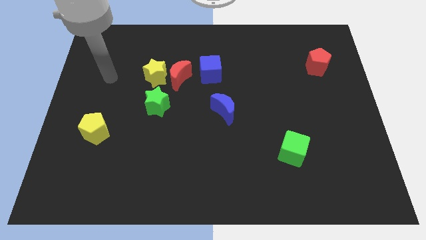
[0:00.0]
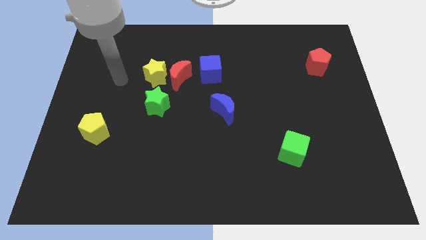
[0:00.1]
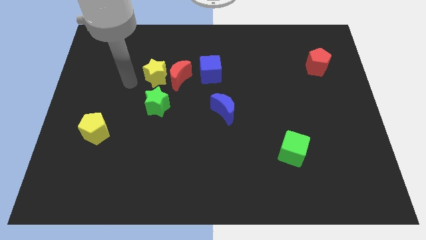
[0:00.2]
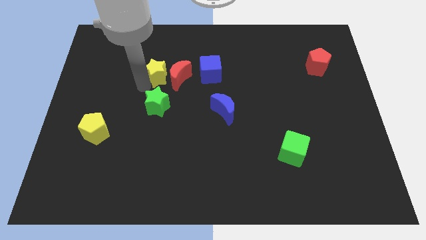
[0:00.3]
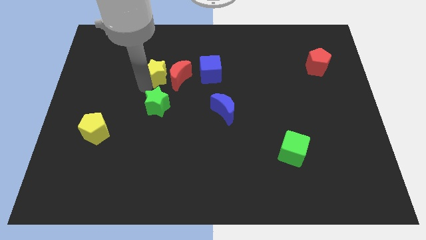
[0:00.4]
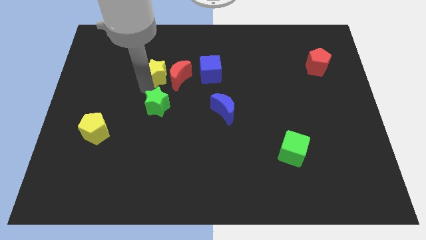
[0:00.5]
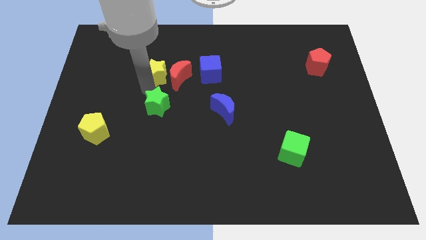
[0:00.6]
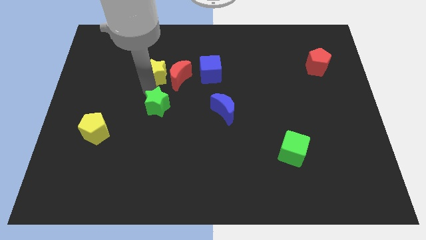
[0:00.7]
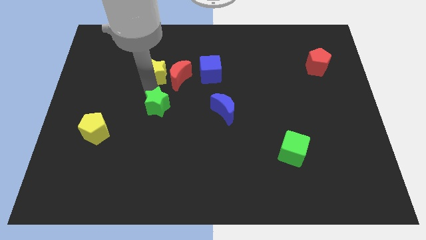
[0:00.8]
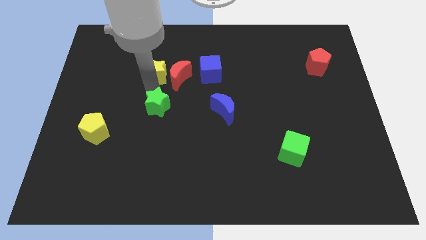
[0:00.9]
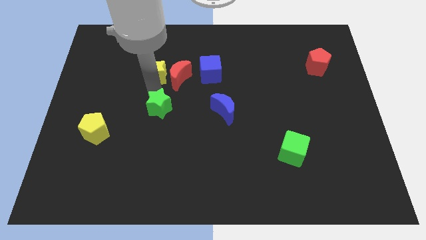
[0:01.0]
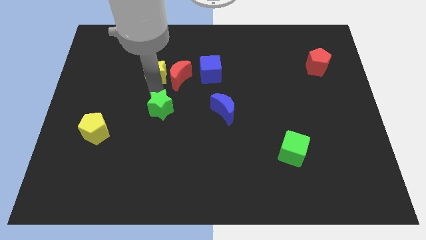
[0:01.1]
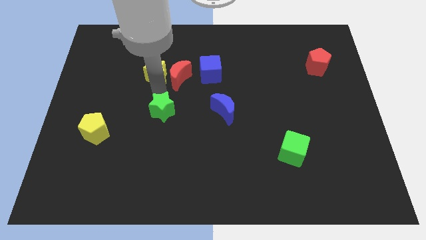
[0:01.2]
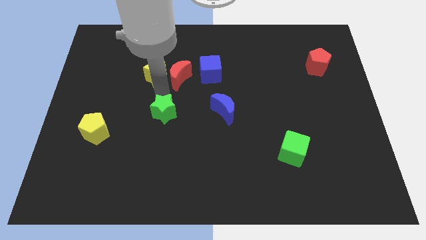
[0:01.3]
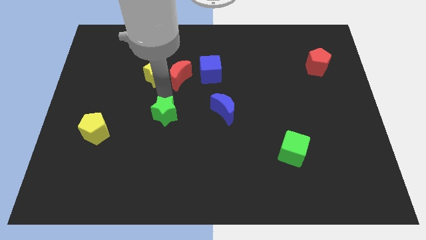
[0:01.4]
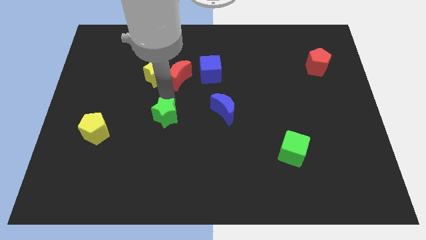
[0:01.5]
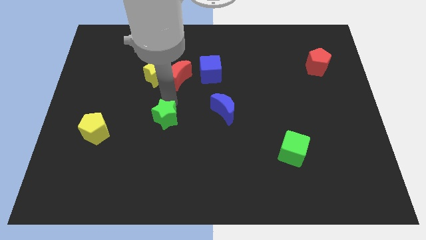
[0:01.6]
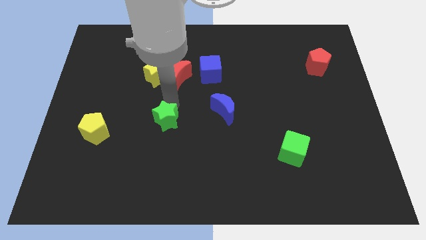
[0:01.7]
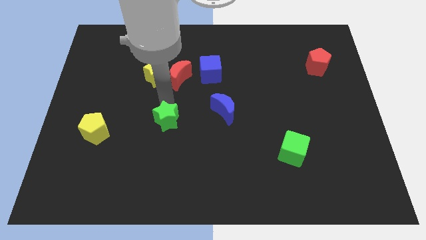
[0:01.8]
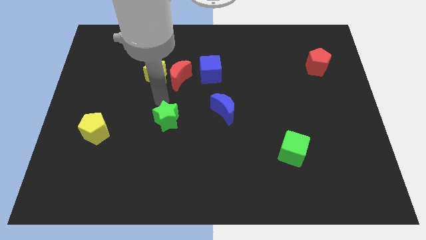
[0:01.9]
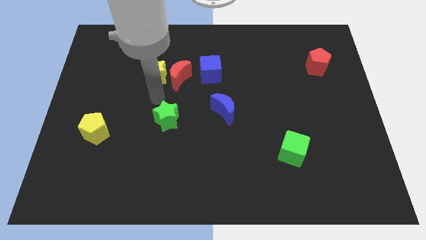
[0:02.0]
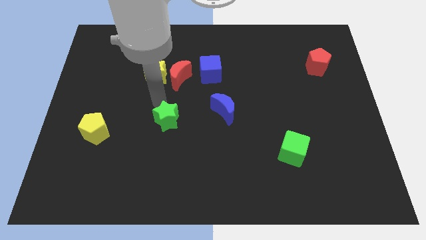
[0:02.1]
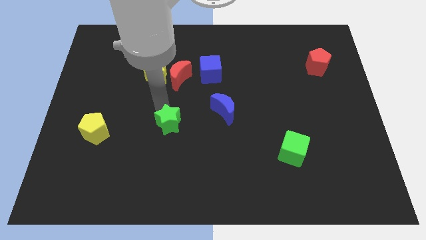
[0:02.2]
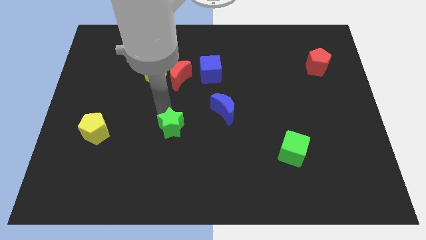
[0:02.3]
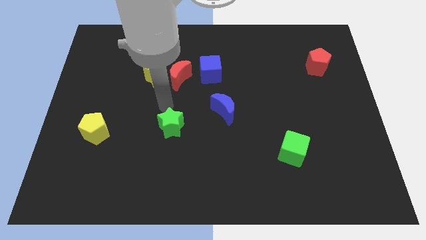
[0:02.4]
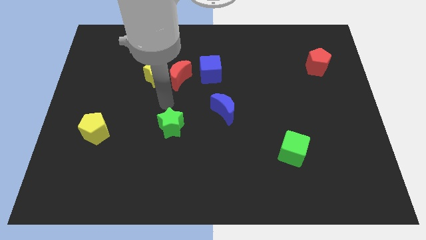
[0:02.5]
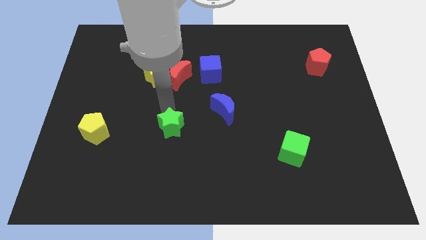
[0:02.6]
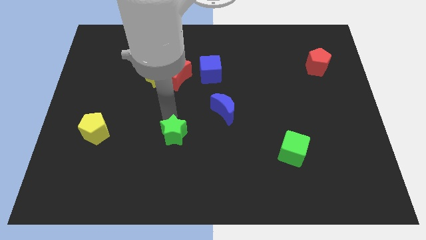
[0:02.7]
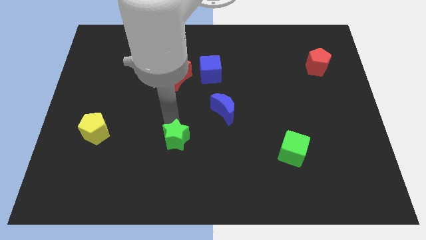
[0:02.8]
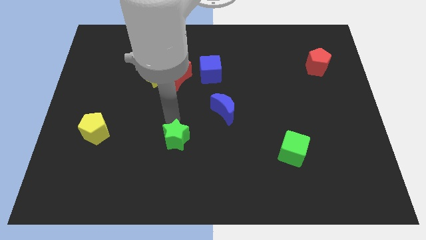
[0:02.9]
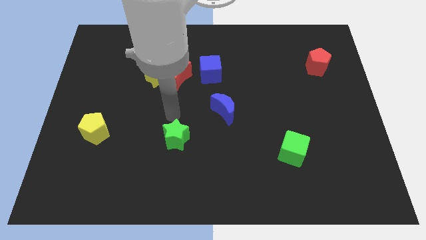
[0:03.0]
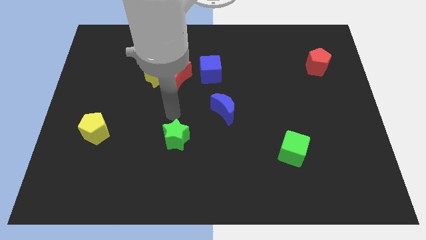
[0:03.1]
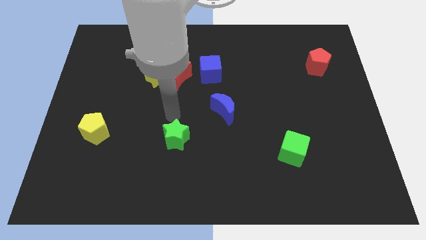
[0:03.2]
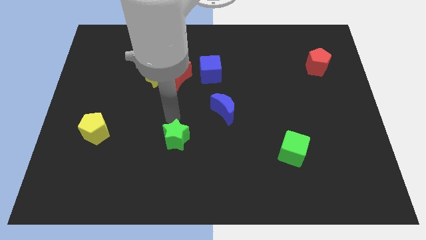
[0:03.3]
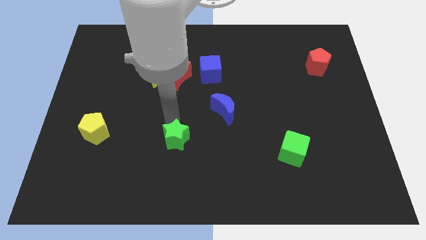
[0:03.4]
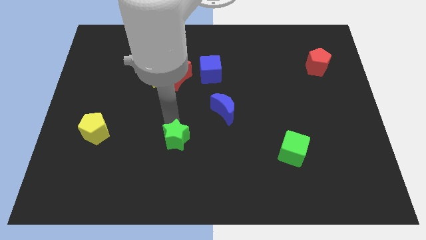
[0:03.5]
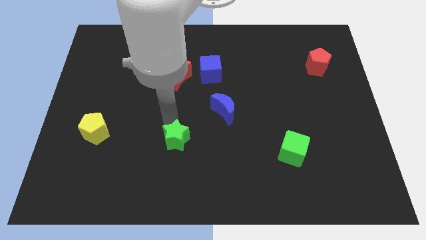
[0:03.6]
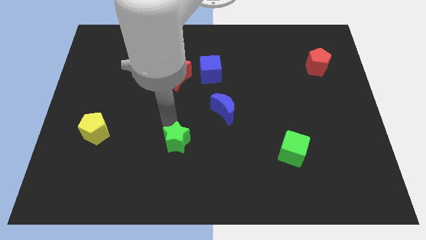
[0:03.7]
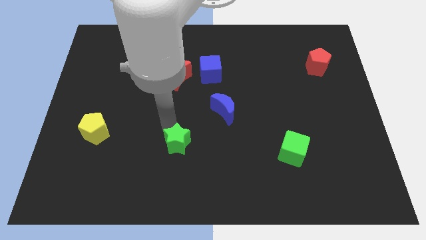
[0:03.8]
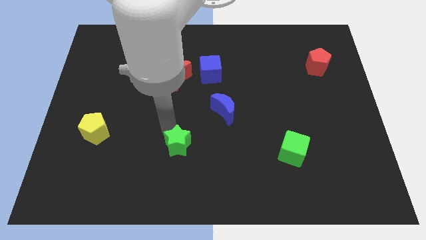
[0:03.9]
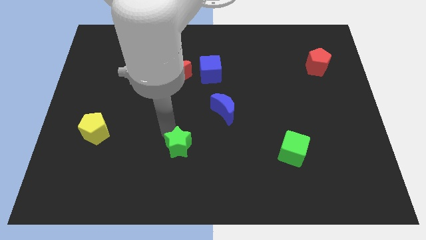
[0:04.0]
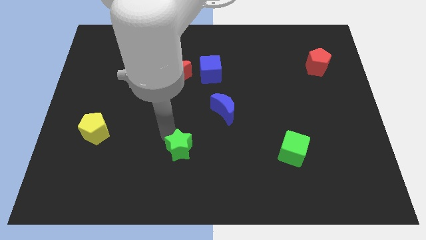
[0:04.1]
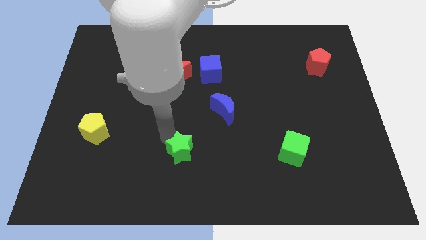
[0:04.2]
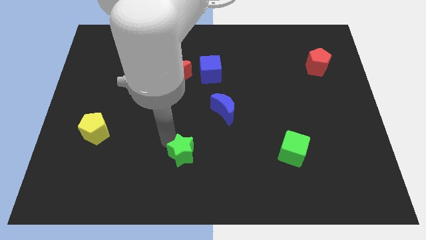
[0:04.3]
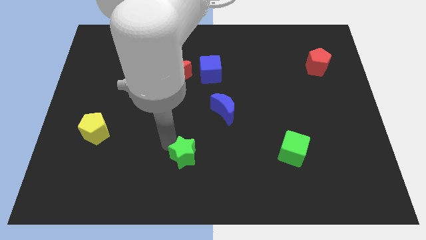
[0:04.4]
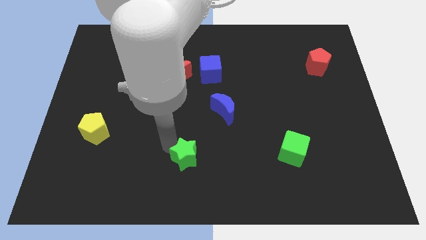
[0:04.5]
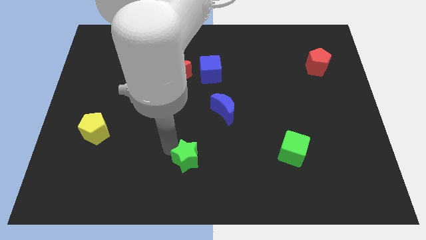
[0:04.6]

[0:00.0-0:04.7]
slide the green star to the bottom

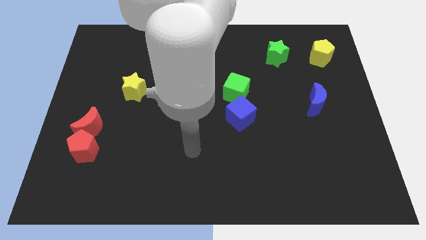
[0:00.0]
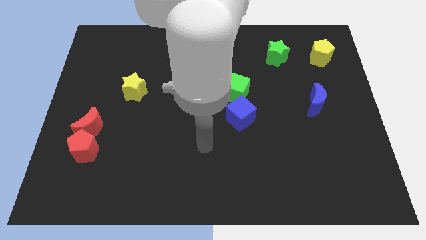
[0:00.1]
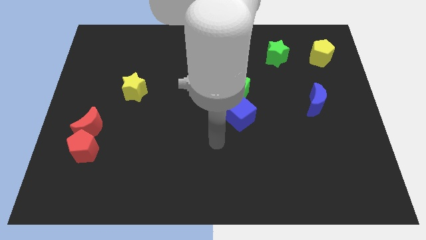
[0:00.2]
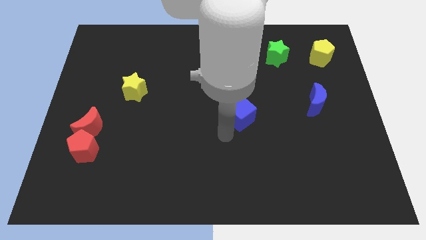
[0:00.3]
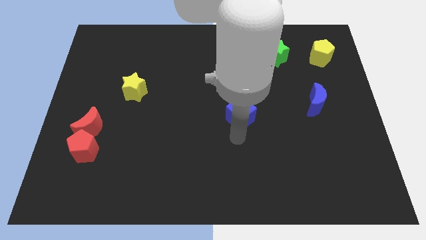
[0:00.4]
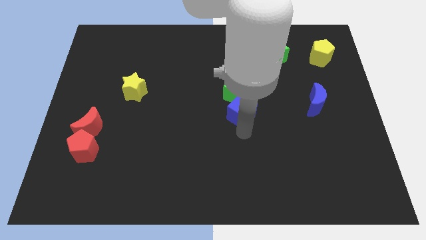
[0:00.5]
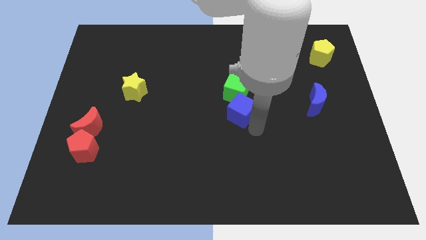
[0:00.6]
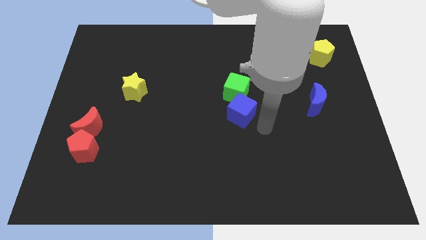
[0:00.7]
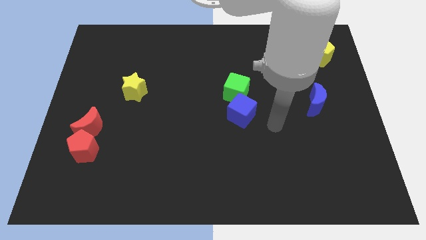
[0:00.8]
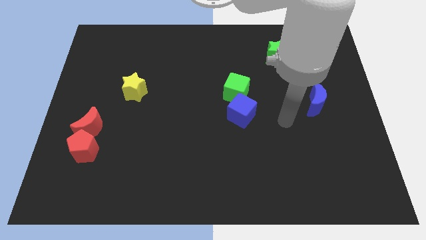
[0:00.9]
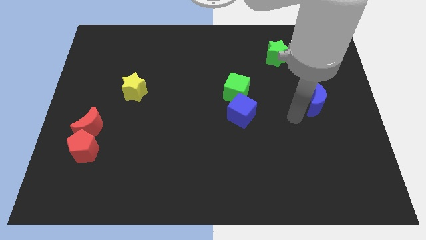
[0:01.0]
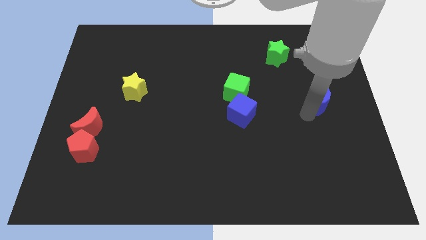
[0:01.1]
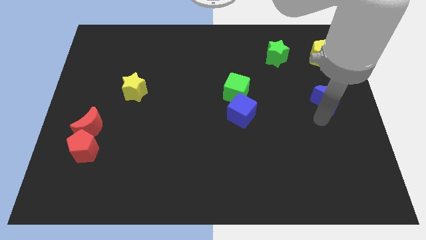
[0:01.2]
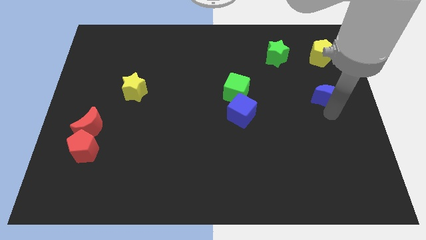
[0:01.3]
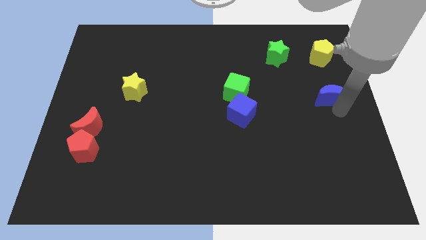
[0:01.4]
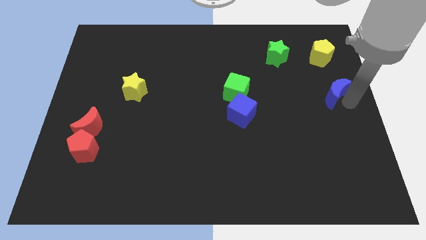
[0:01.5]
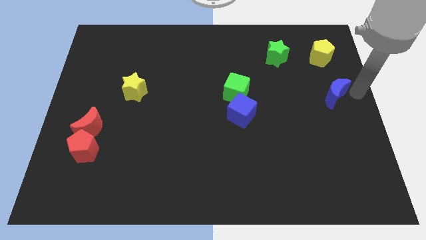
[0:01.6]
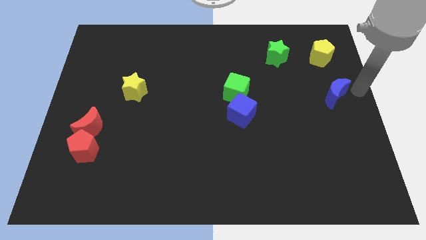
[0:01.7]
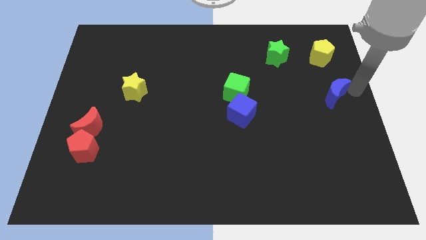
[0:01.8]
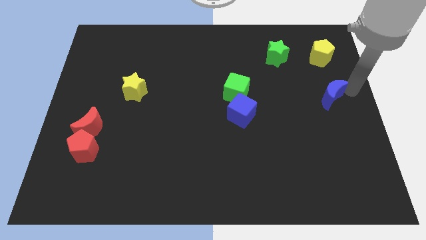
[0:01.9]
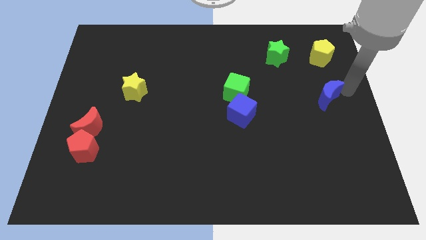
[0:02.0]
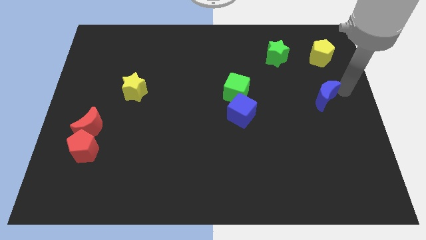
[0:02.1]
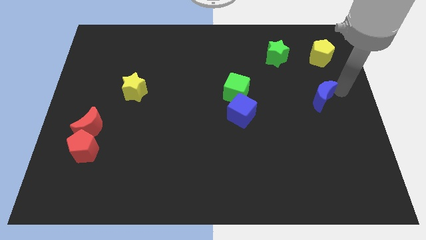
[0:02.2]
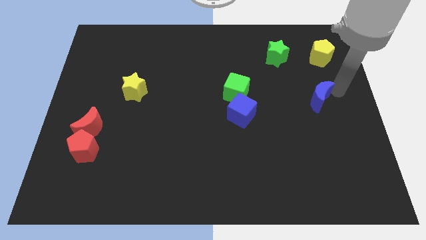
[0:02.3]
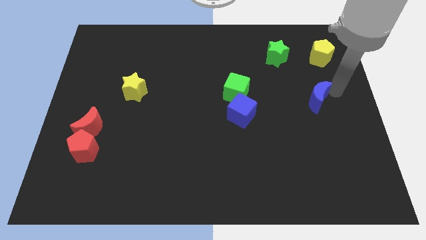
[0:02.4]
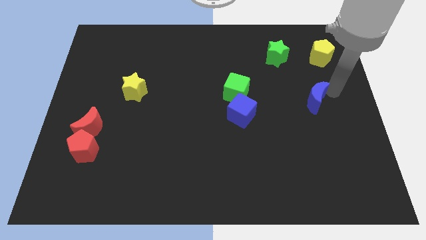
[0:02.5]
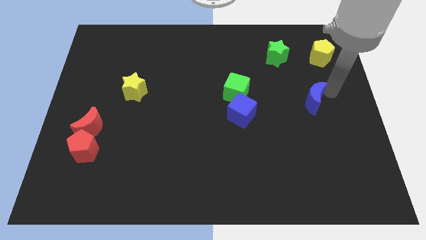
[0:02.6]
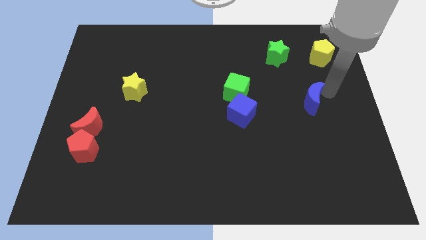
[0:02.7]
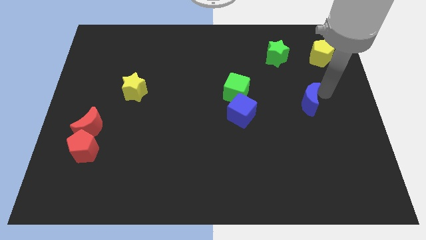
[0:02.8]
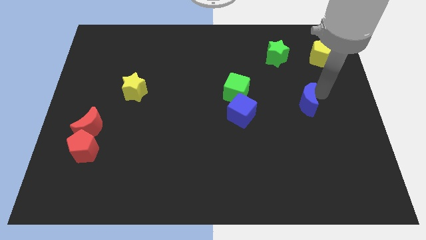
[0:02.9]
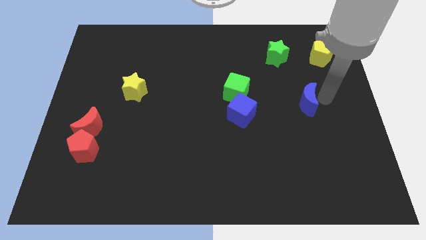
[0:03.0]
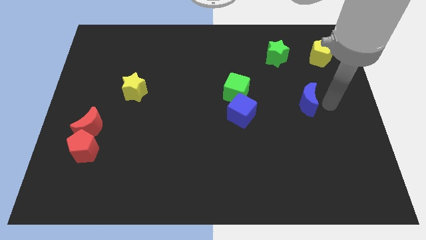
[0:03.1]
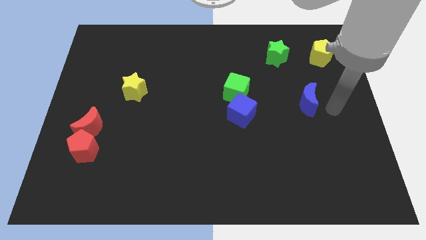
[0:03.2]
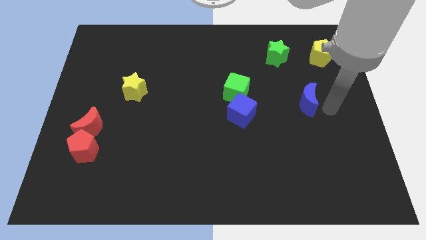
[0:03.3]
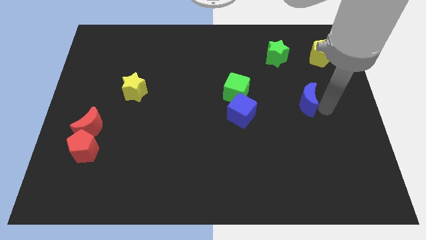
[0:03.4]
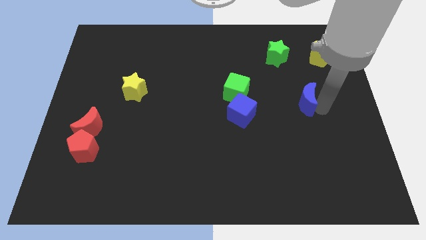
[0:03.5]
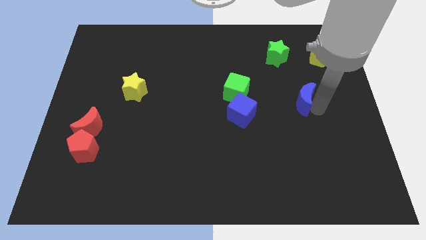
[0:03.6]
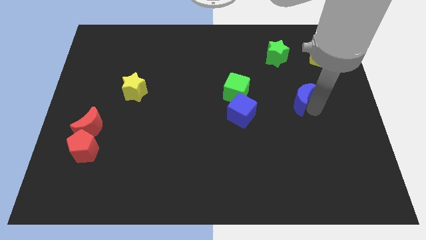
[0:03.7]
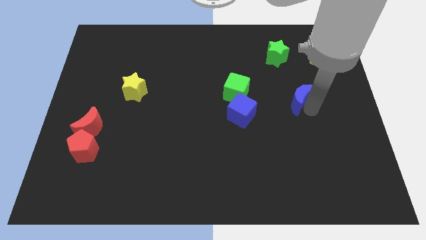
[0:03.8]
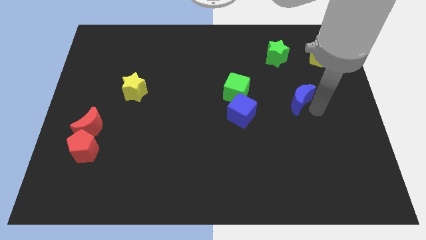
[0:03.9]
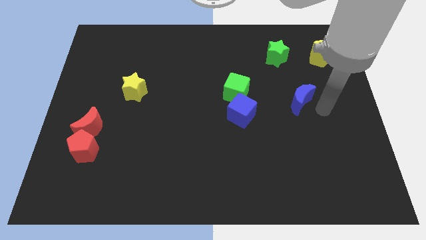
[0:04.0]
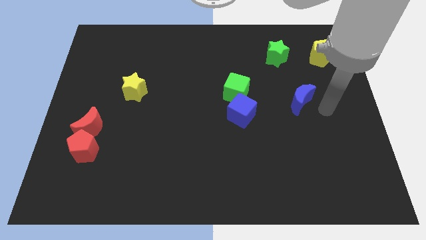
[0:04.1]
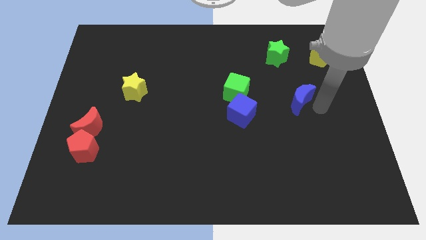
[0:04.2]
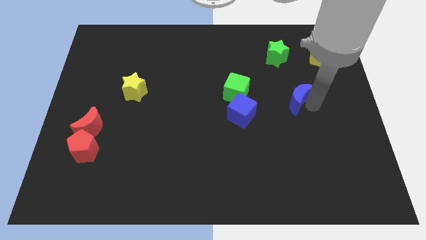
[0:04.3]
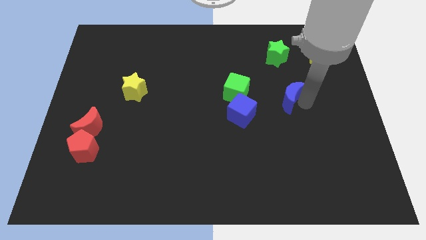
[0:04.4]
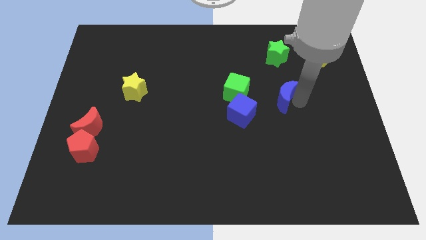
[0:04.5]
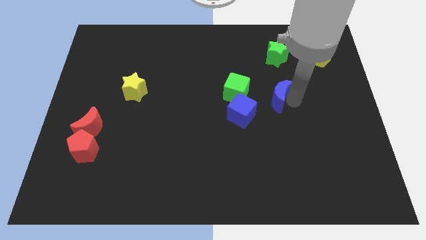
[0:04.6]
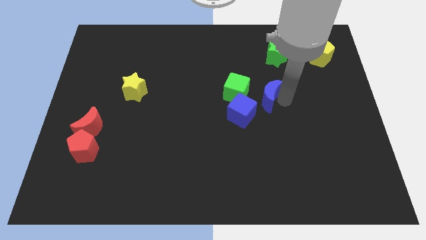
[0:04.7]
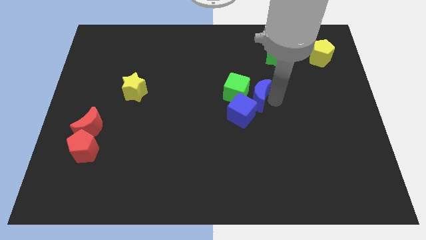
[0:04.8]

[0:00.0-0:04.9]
move the blue moon to the center of the board
